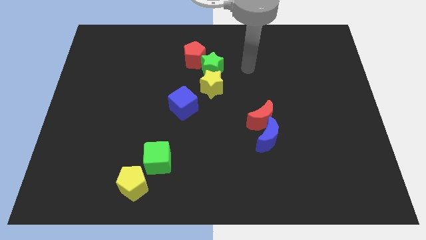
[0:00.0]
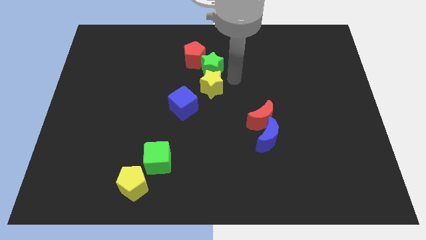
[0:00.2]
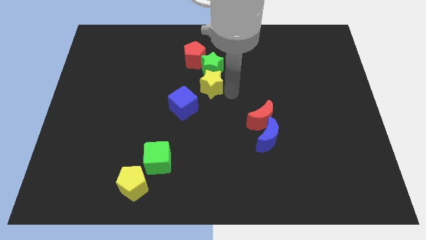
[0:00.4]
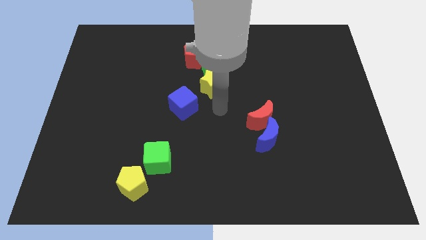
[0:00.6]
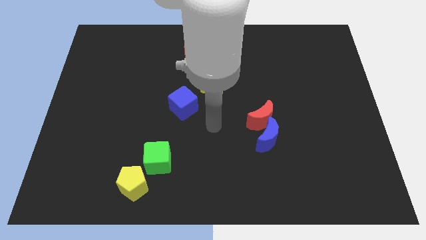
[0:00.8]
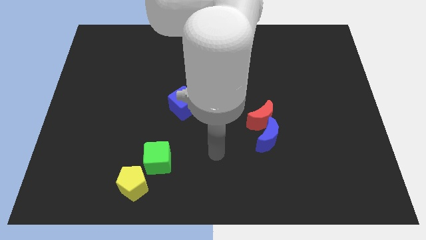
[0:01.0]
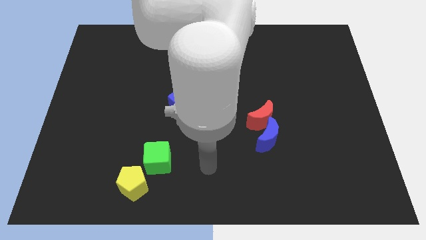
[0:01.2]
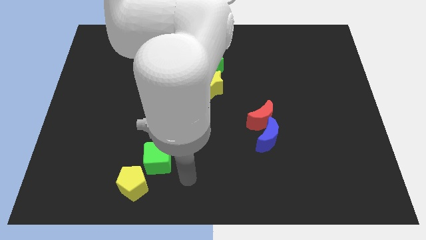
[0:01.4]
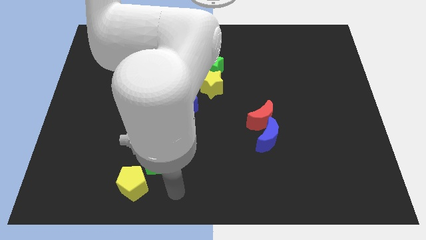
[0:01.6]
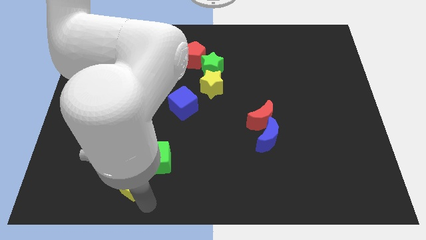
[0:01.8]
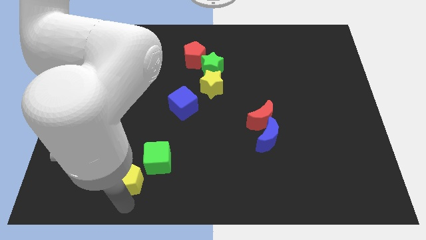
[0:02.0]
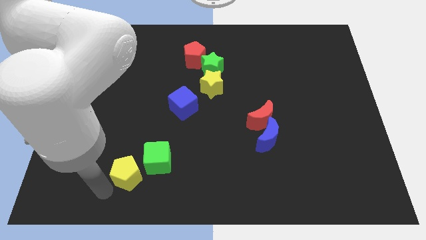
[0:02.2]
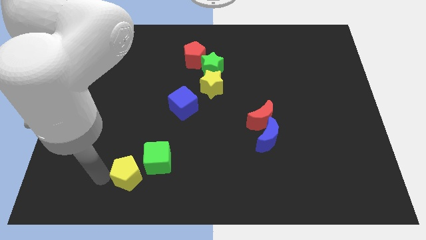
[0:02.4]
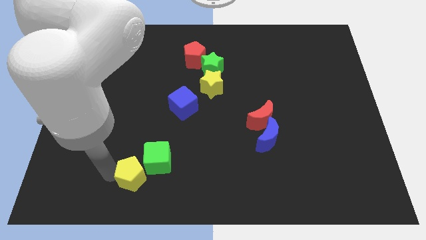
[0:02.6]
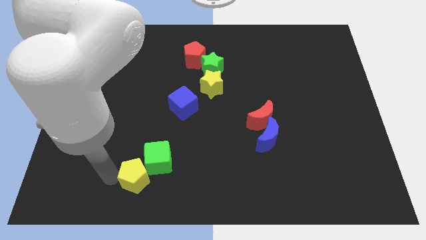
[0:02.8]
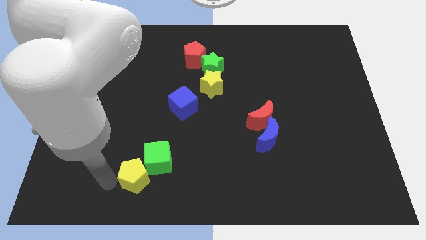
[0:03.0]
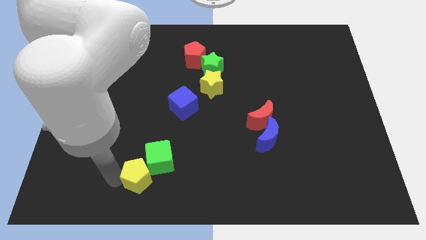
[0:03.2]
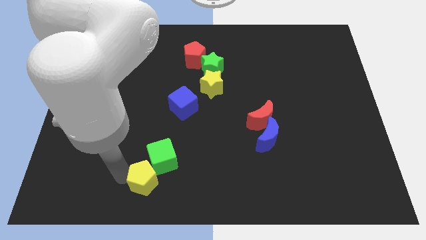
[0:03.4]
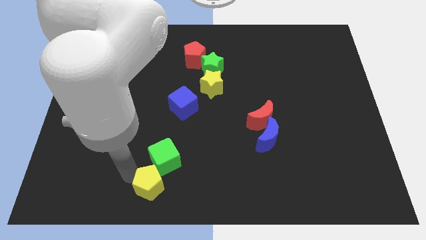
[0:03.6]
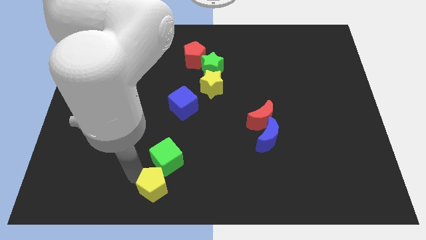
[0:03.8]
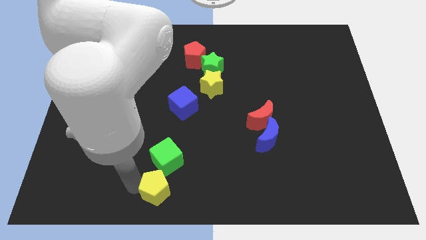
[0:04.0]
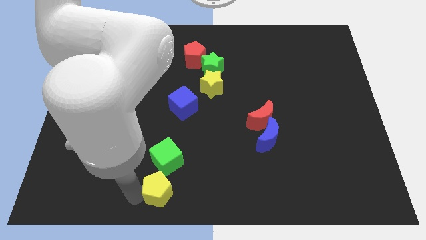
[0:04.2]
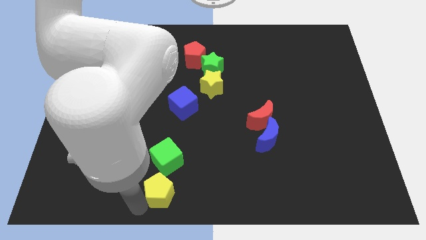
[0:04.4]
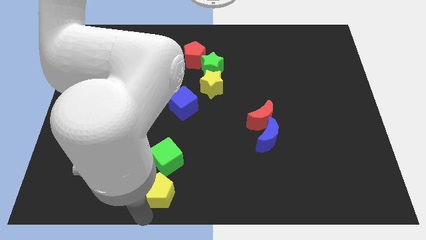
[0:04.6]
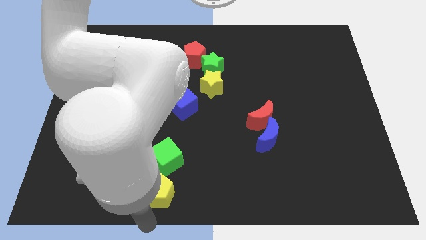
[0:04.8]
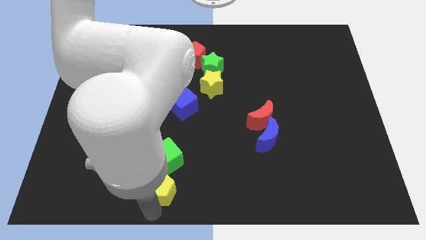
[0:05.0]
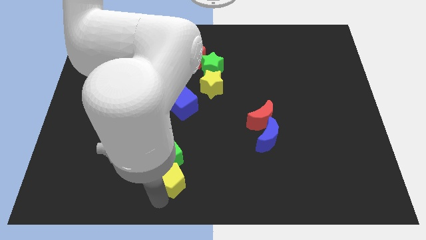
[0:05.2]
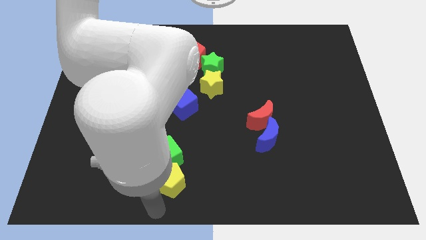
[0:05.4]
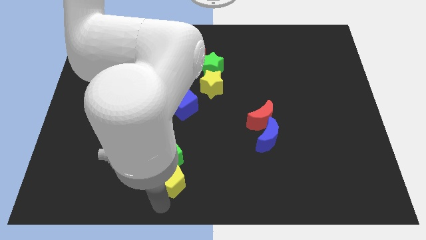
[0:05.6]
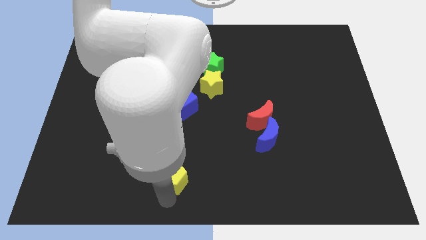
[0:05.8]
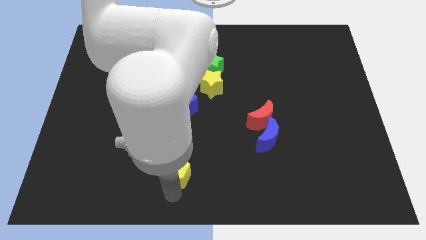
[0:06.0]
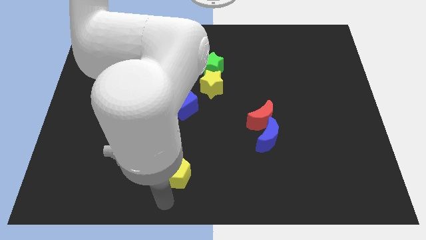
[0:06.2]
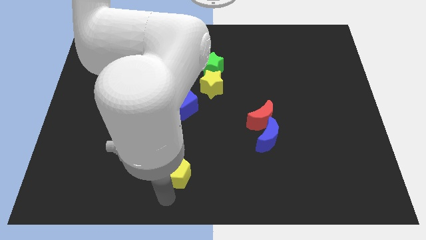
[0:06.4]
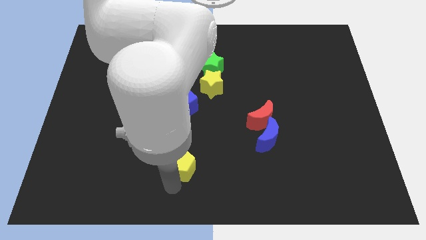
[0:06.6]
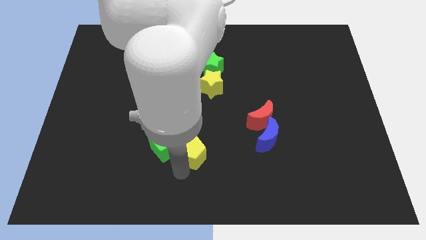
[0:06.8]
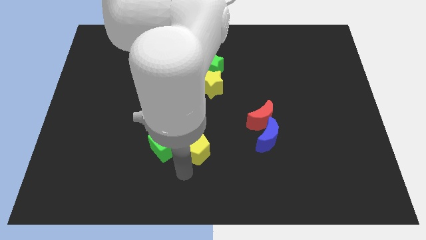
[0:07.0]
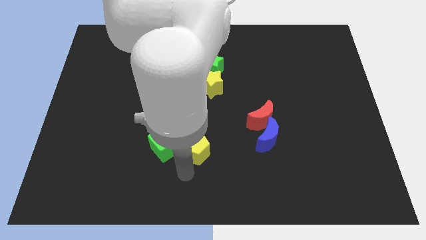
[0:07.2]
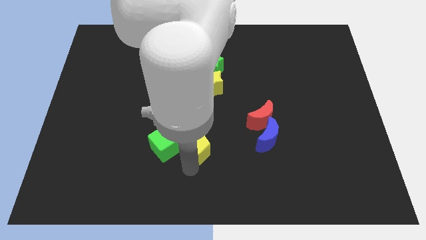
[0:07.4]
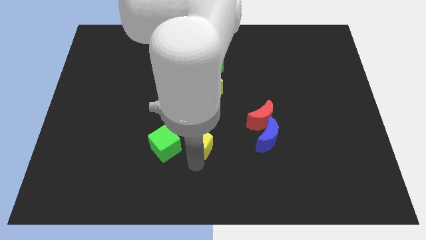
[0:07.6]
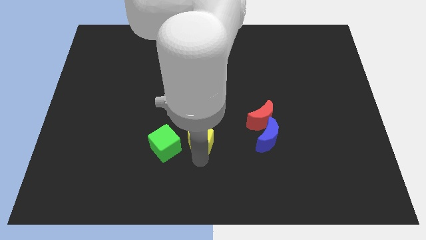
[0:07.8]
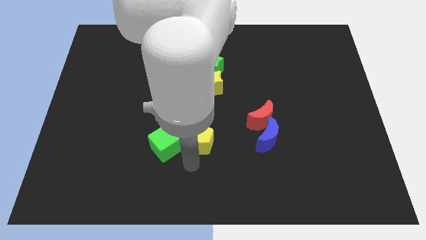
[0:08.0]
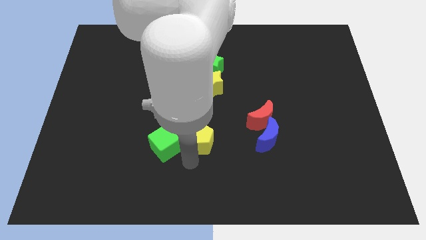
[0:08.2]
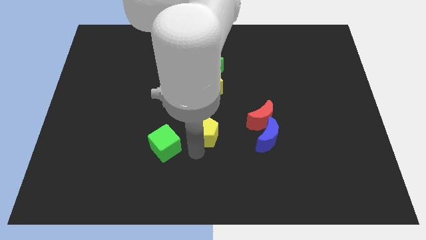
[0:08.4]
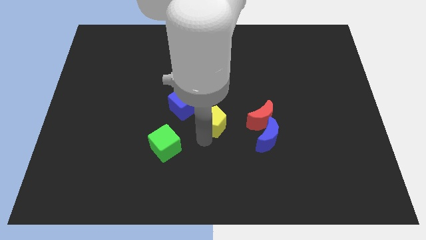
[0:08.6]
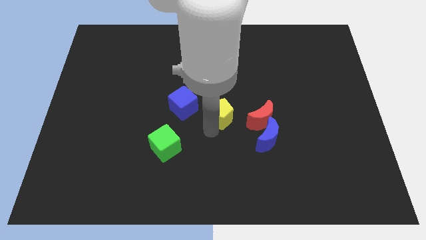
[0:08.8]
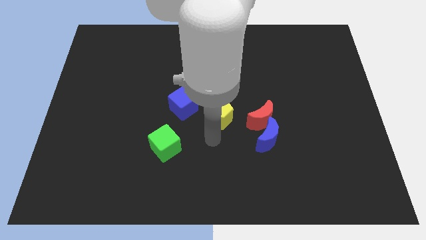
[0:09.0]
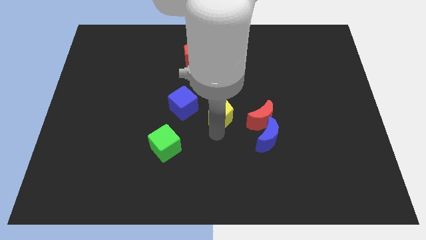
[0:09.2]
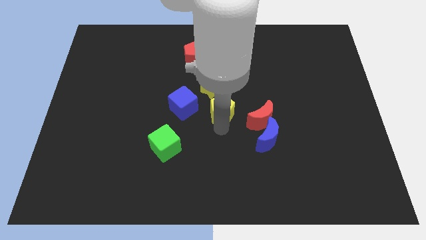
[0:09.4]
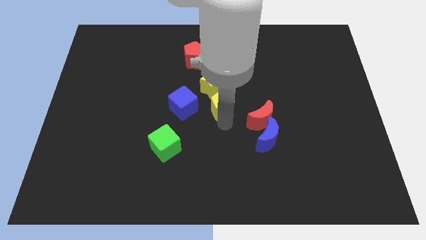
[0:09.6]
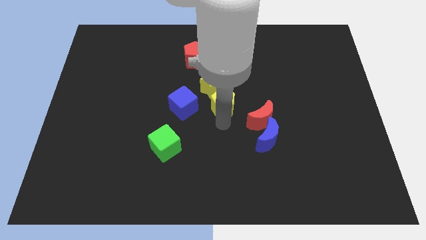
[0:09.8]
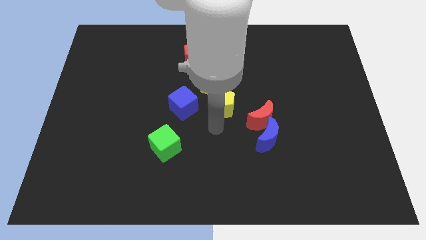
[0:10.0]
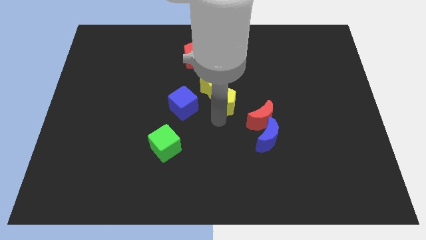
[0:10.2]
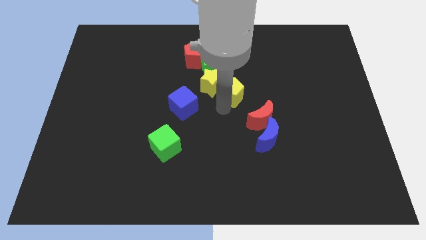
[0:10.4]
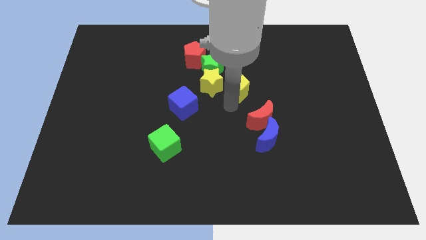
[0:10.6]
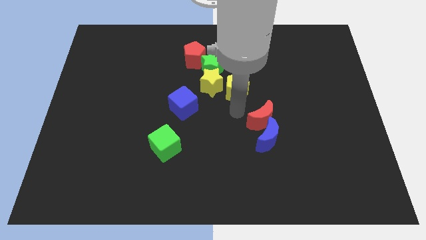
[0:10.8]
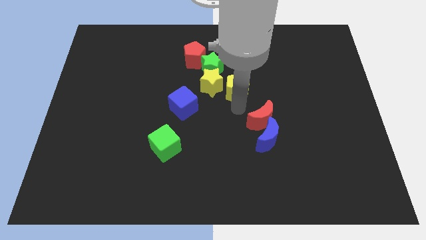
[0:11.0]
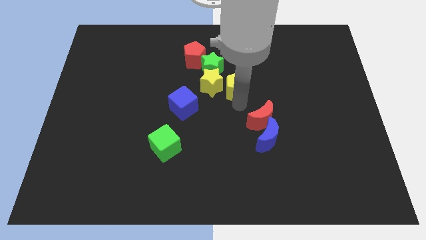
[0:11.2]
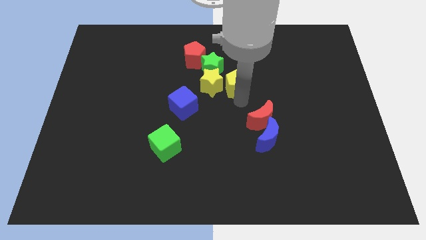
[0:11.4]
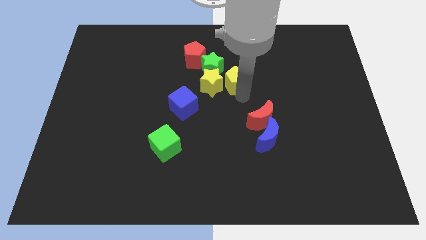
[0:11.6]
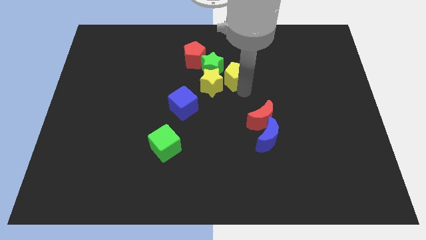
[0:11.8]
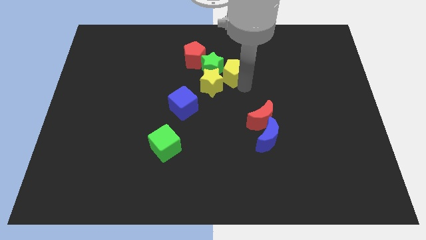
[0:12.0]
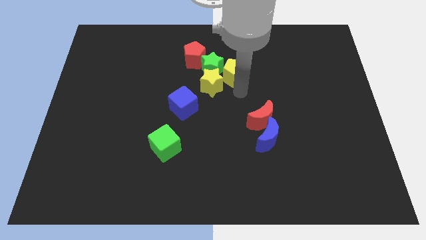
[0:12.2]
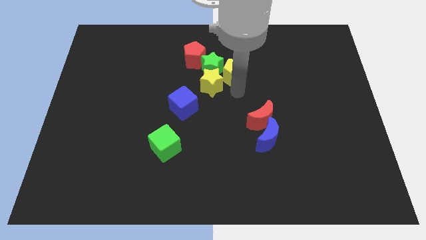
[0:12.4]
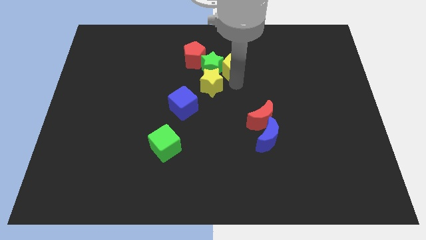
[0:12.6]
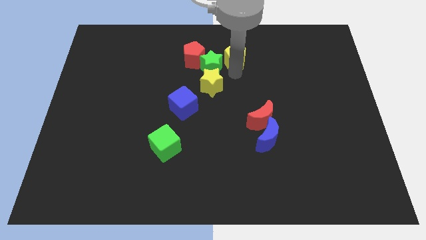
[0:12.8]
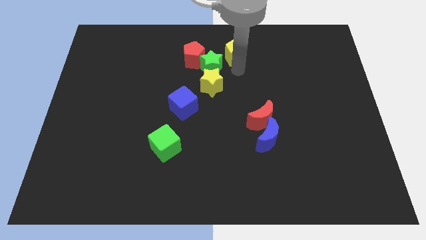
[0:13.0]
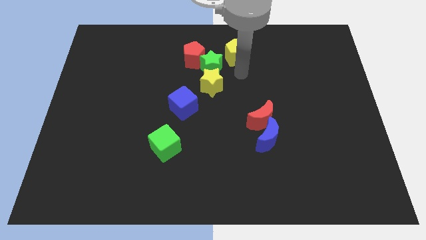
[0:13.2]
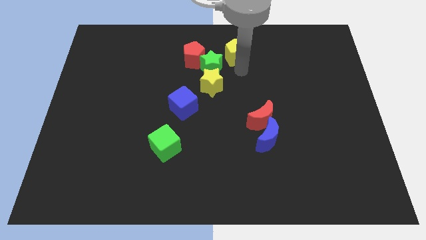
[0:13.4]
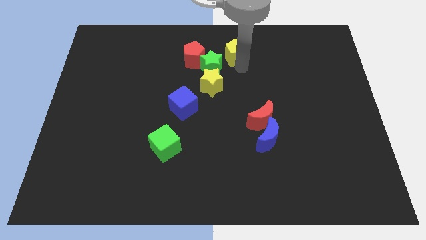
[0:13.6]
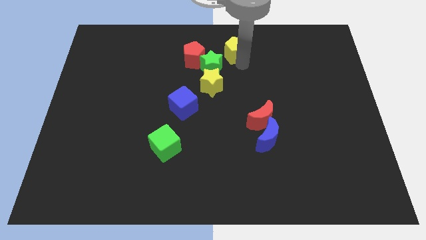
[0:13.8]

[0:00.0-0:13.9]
put the yellow pentagon to the towards your base

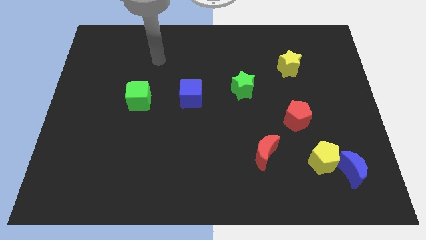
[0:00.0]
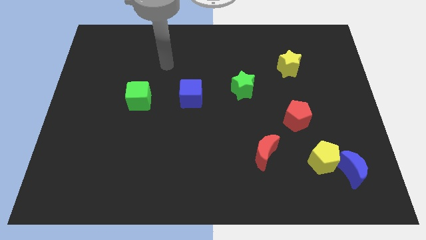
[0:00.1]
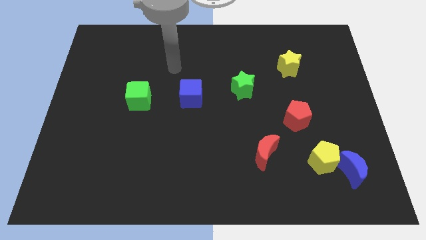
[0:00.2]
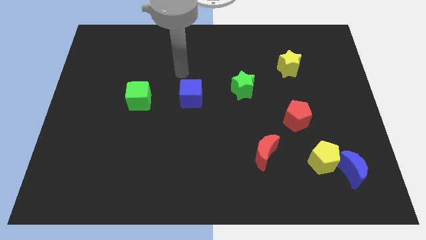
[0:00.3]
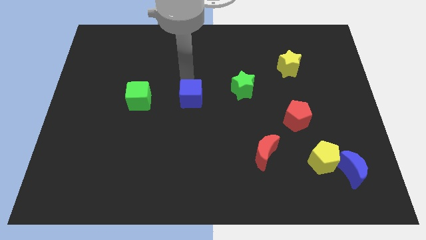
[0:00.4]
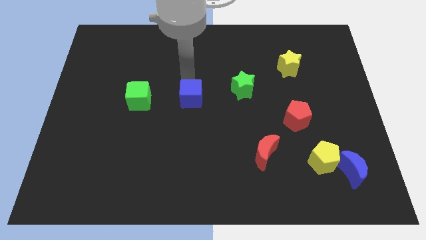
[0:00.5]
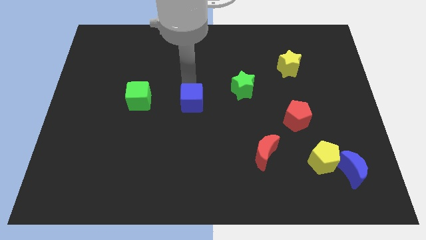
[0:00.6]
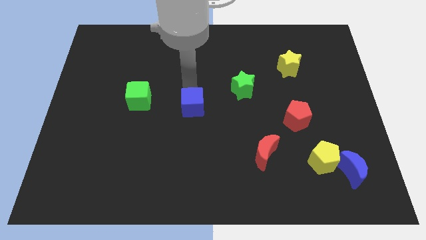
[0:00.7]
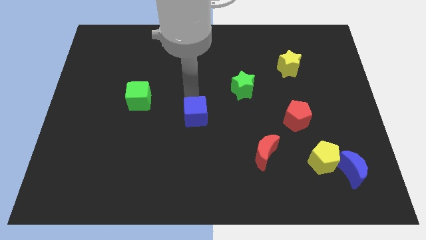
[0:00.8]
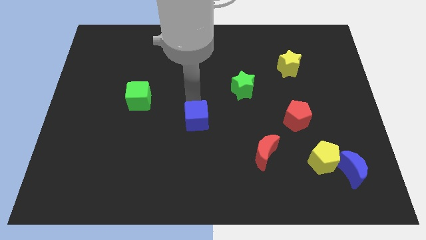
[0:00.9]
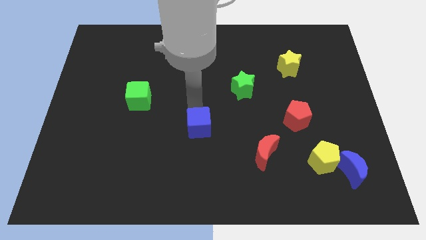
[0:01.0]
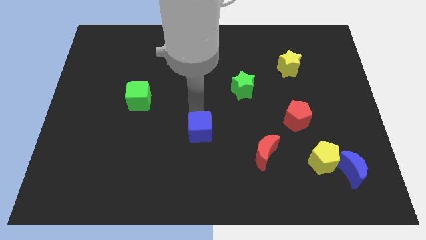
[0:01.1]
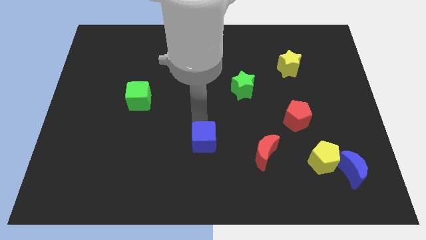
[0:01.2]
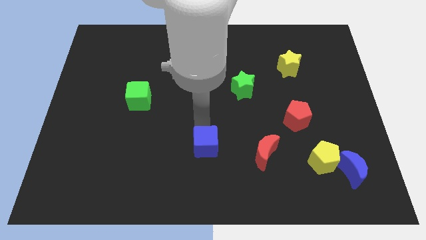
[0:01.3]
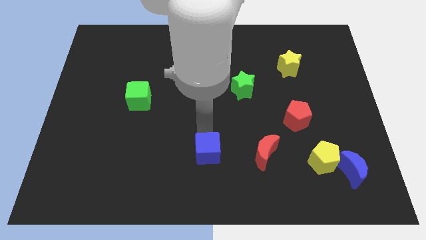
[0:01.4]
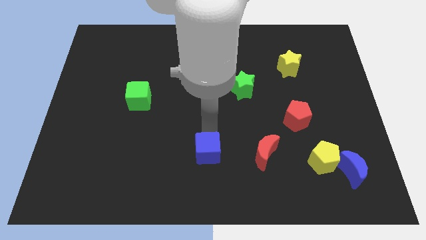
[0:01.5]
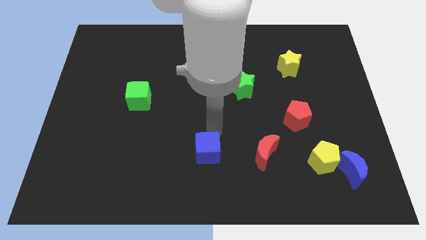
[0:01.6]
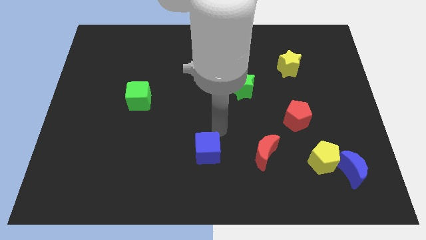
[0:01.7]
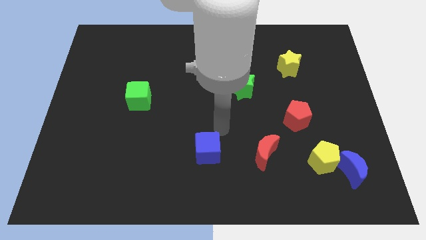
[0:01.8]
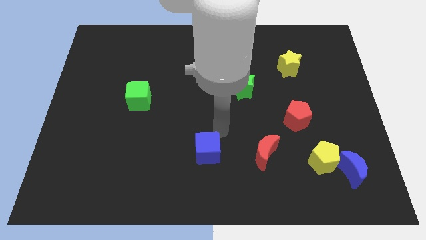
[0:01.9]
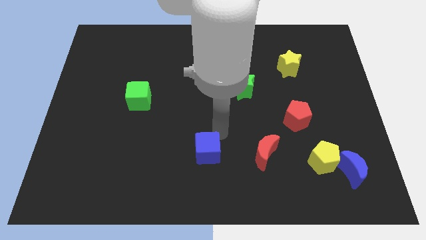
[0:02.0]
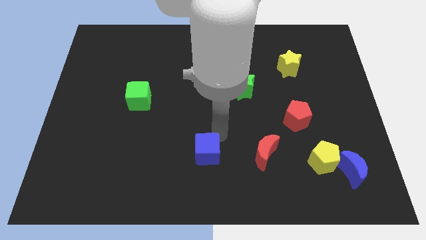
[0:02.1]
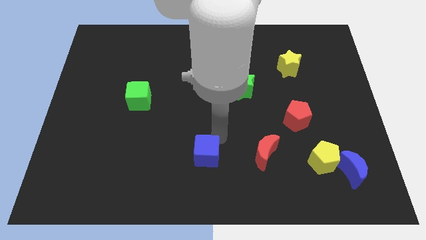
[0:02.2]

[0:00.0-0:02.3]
move the blue cube to the bottom side
